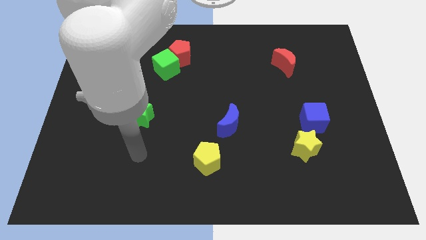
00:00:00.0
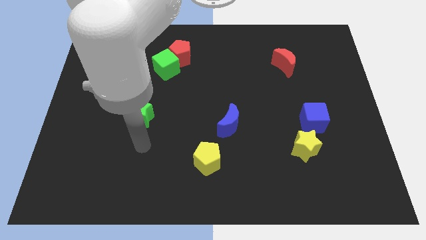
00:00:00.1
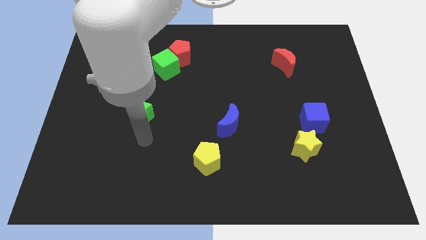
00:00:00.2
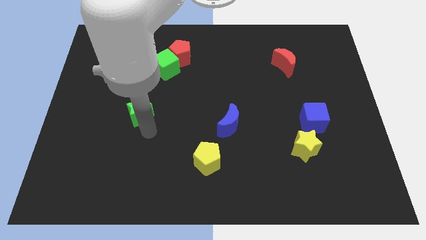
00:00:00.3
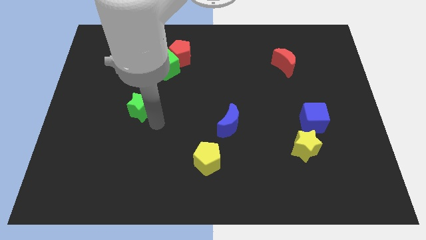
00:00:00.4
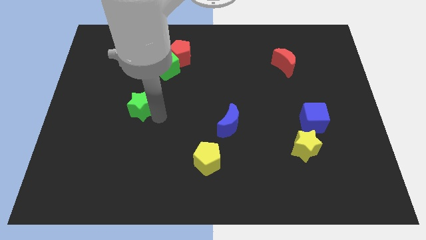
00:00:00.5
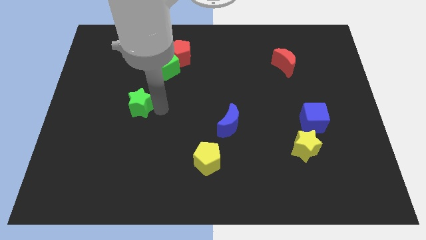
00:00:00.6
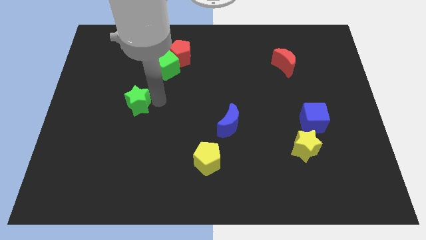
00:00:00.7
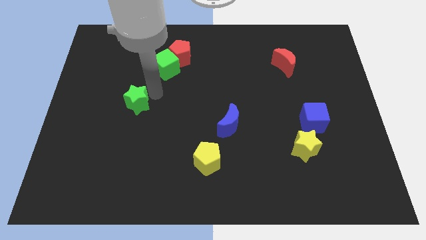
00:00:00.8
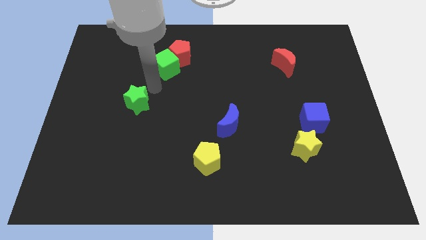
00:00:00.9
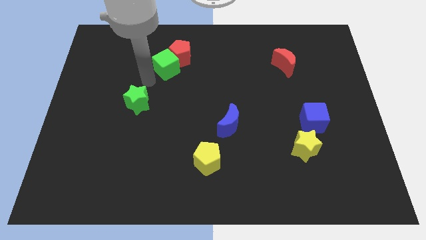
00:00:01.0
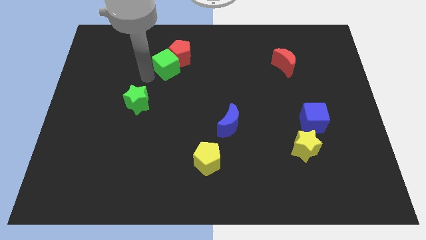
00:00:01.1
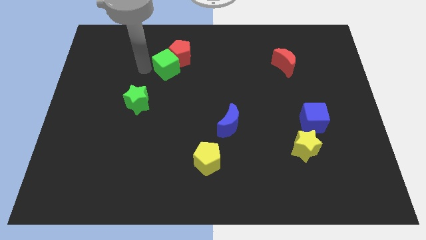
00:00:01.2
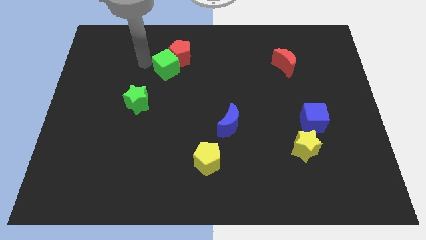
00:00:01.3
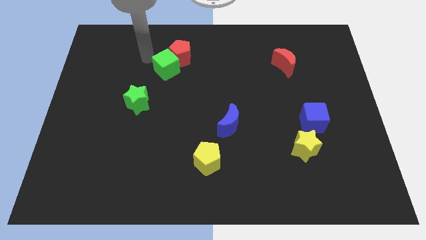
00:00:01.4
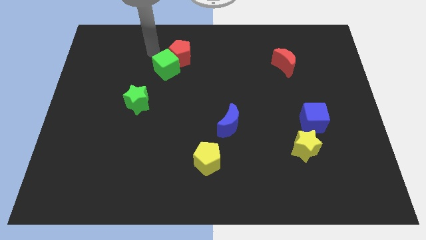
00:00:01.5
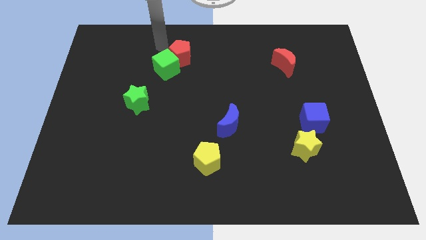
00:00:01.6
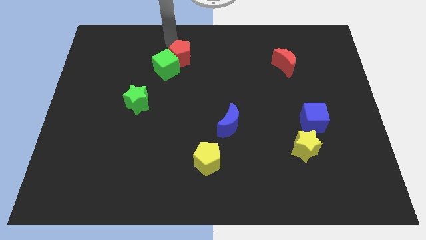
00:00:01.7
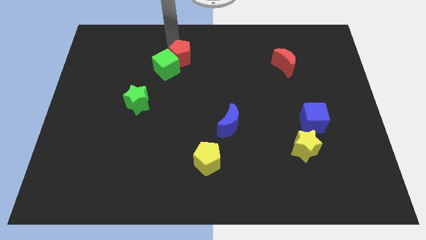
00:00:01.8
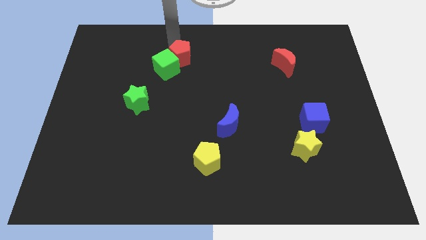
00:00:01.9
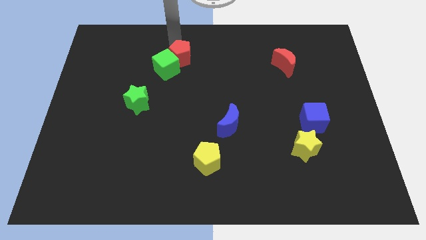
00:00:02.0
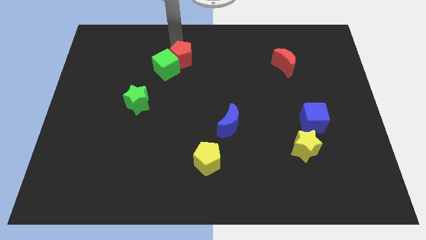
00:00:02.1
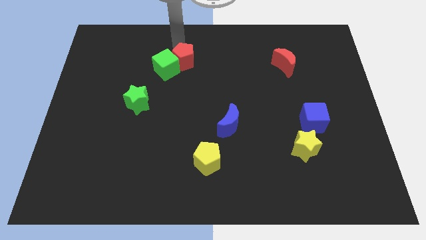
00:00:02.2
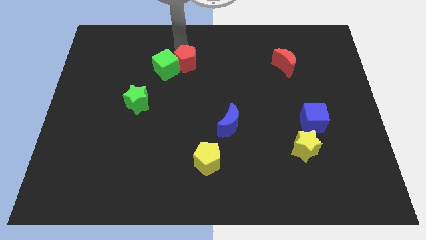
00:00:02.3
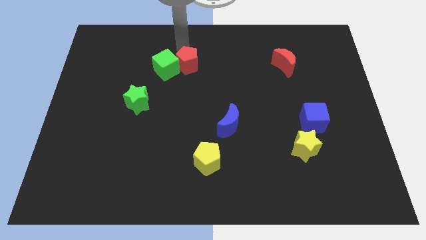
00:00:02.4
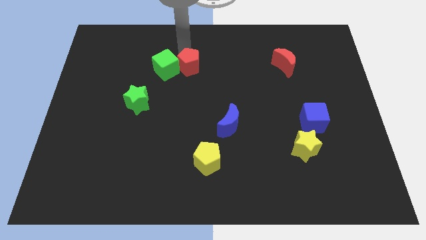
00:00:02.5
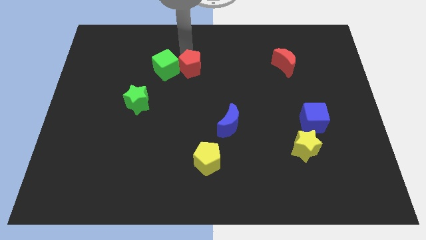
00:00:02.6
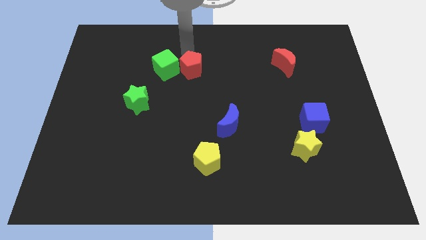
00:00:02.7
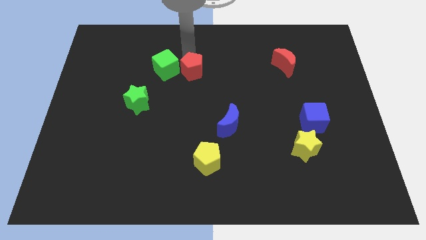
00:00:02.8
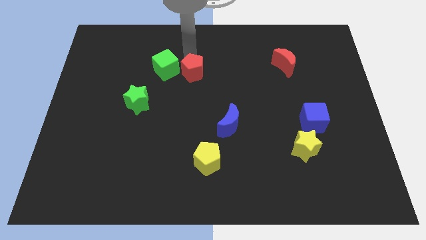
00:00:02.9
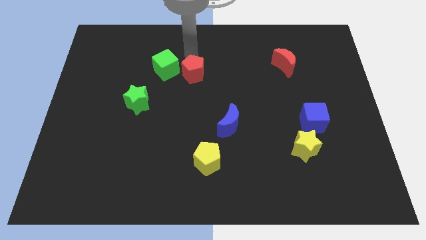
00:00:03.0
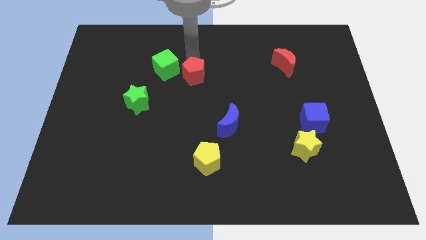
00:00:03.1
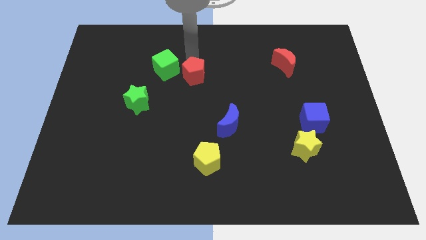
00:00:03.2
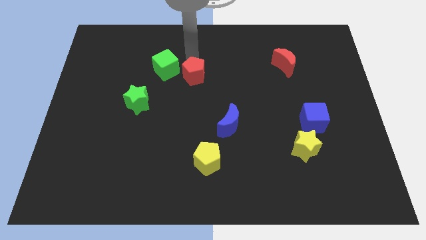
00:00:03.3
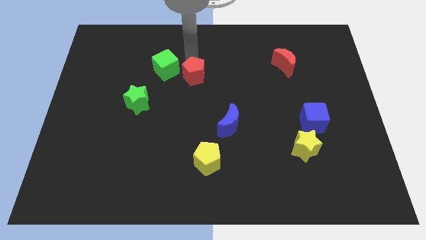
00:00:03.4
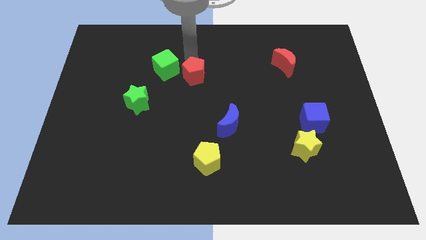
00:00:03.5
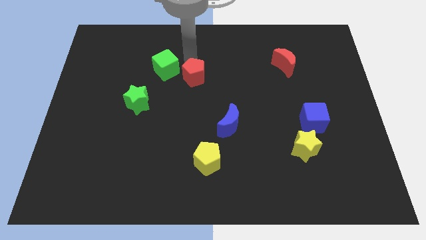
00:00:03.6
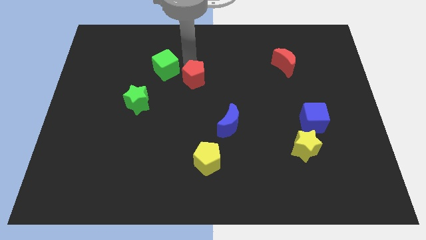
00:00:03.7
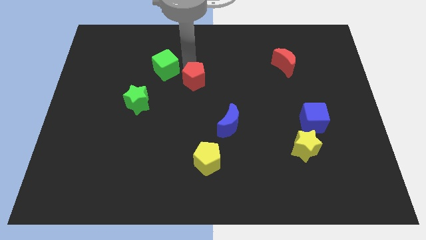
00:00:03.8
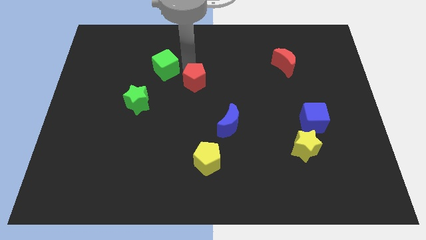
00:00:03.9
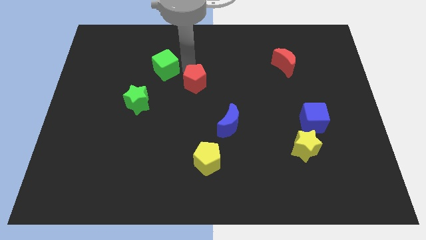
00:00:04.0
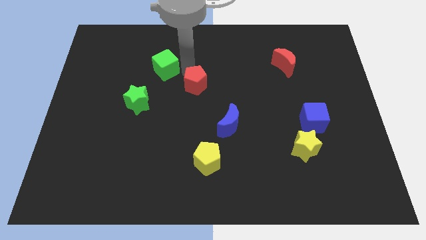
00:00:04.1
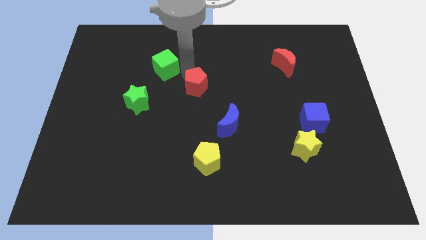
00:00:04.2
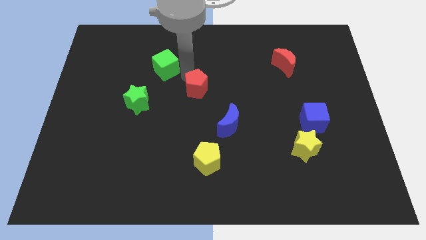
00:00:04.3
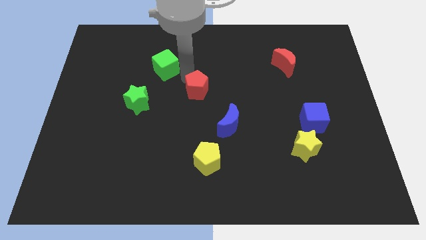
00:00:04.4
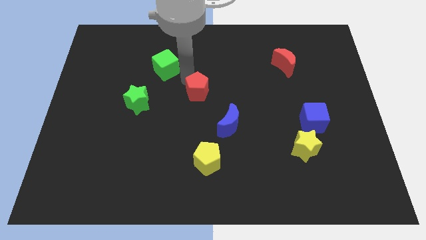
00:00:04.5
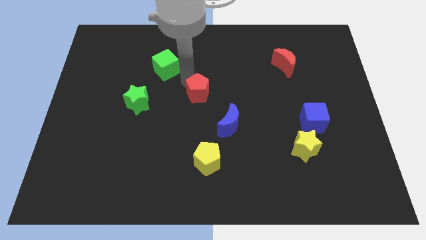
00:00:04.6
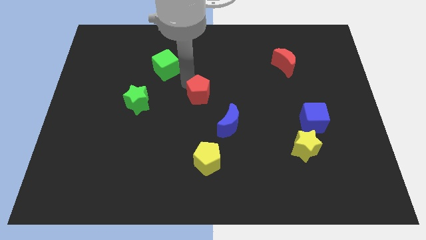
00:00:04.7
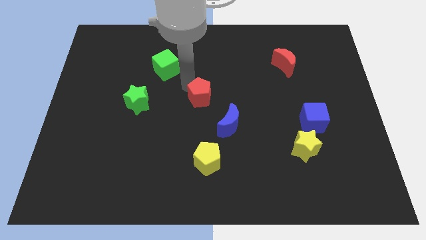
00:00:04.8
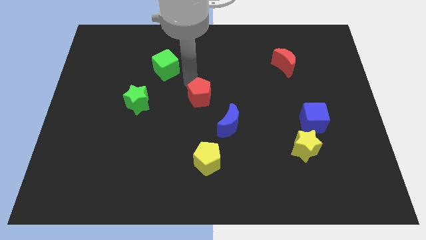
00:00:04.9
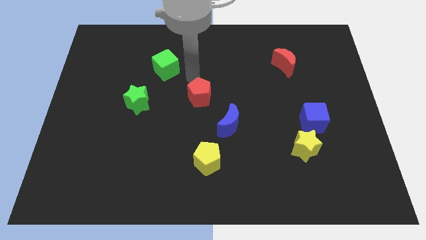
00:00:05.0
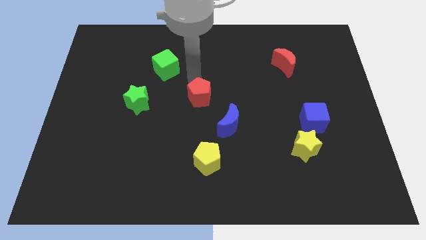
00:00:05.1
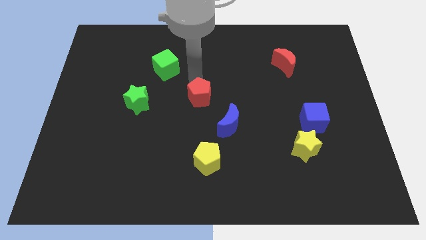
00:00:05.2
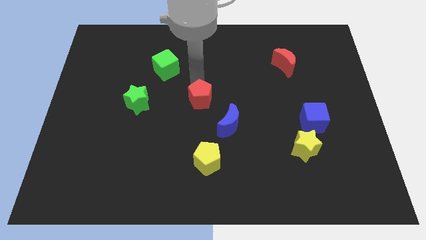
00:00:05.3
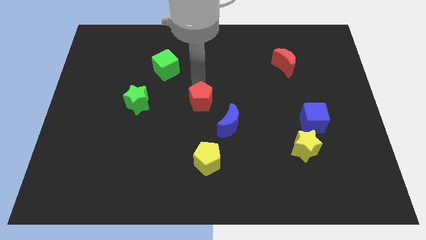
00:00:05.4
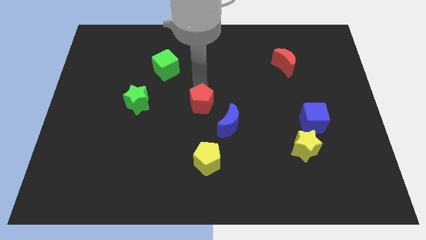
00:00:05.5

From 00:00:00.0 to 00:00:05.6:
put the red pentagon to the top of the yellow pentagon

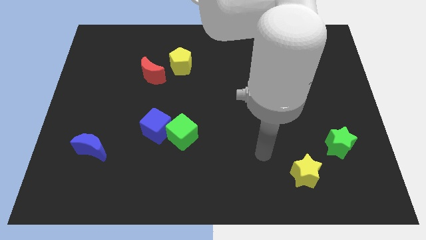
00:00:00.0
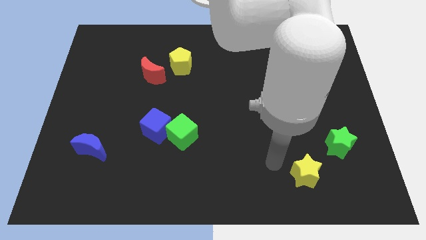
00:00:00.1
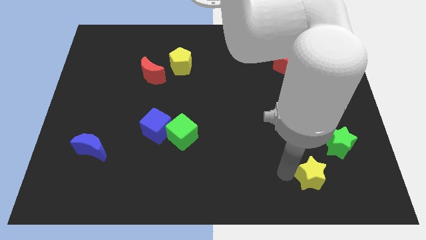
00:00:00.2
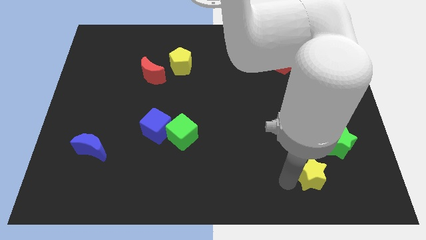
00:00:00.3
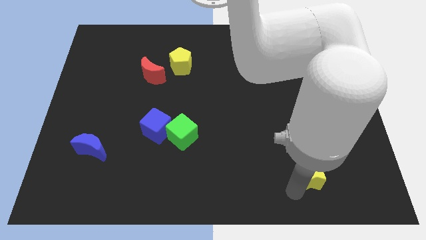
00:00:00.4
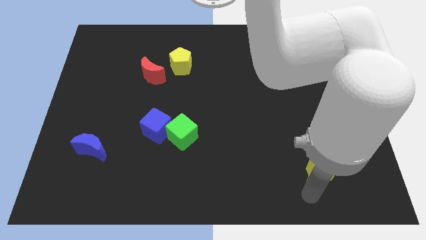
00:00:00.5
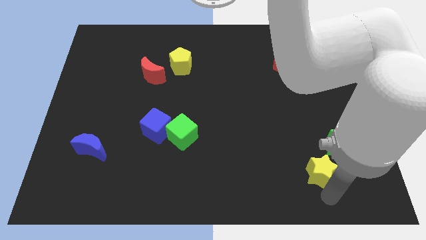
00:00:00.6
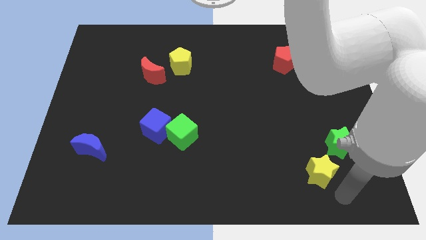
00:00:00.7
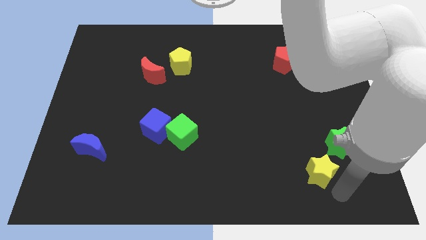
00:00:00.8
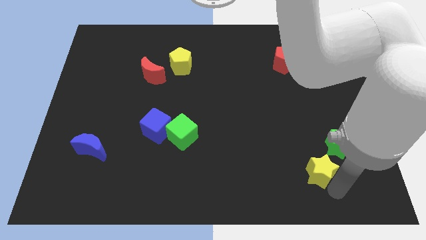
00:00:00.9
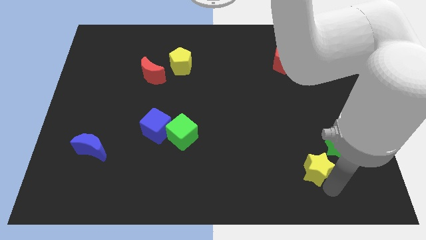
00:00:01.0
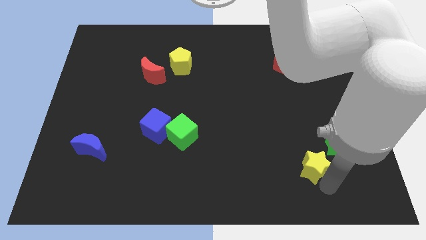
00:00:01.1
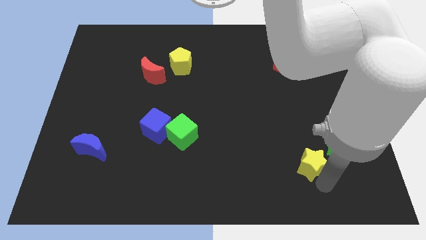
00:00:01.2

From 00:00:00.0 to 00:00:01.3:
push the yellow star left of the green star
